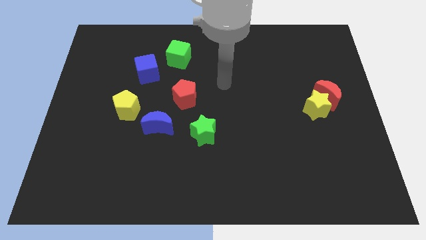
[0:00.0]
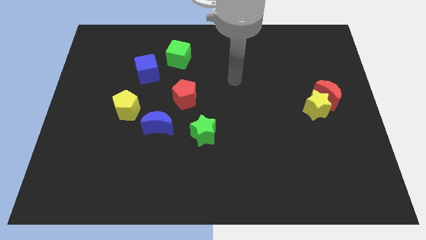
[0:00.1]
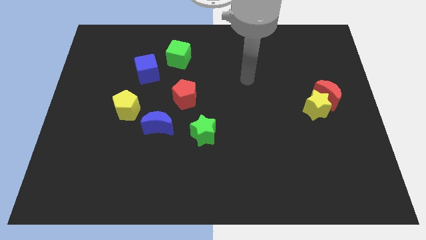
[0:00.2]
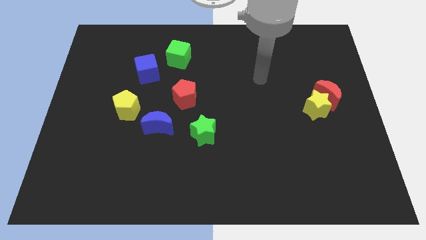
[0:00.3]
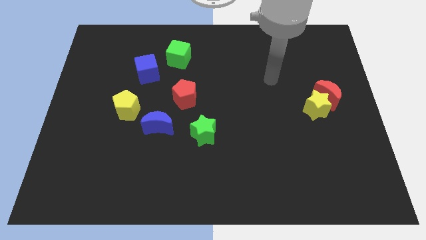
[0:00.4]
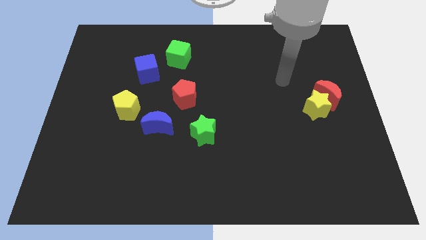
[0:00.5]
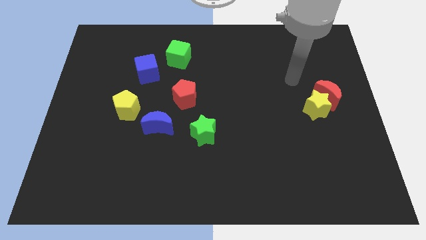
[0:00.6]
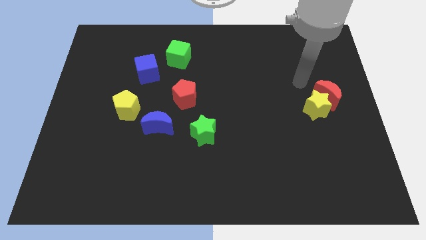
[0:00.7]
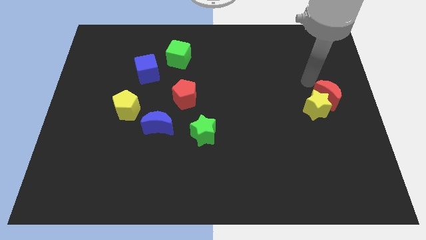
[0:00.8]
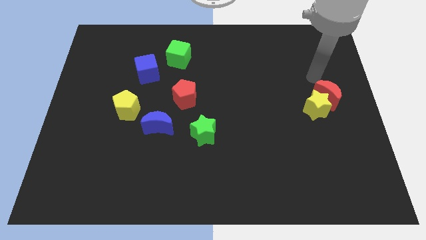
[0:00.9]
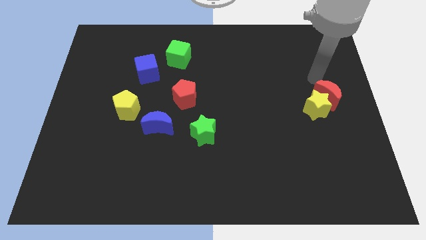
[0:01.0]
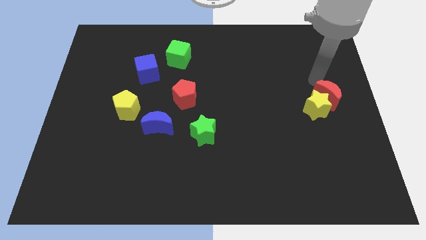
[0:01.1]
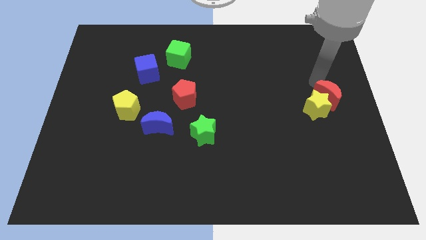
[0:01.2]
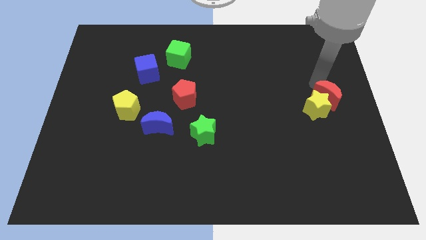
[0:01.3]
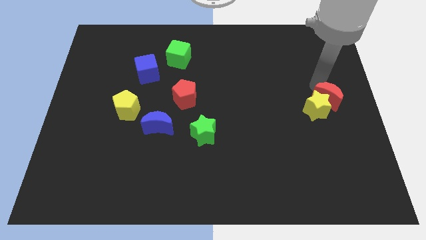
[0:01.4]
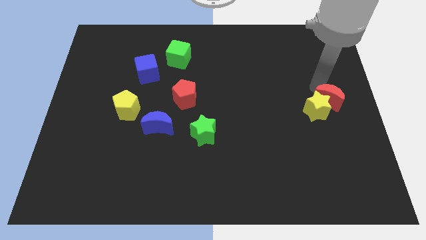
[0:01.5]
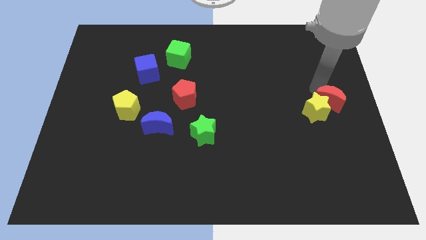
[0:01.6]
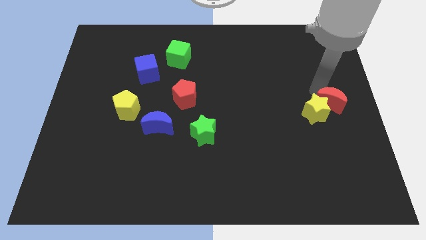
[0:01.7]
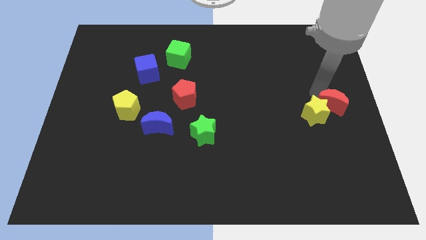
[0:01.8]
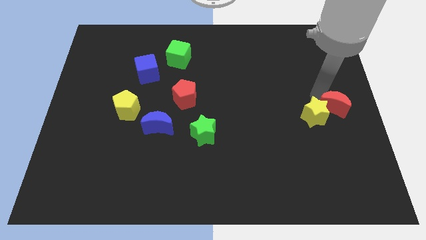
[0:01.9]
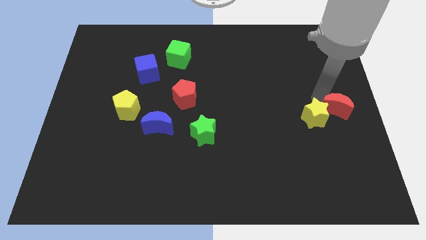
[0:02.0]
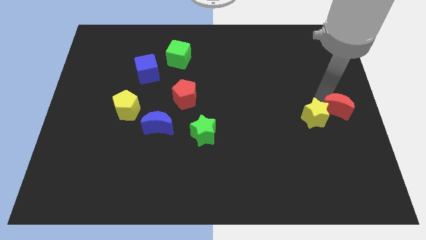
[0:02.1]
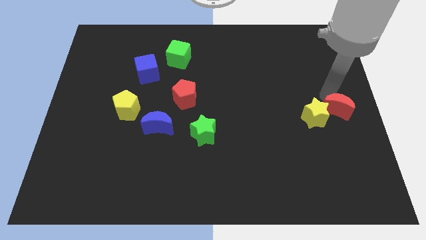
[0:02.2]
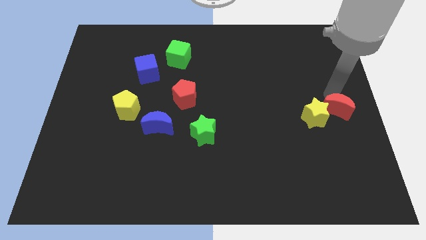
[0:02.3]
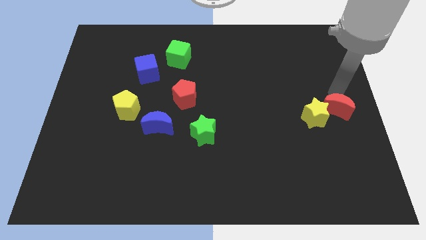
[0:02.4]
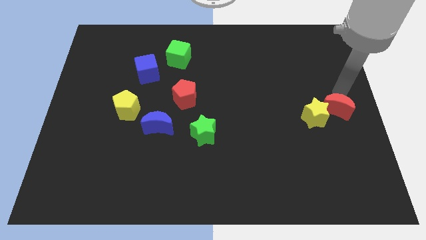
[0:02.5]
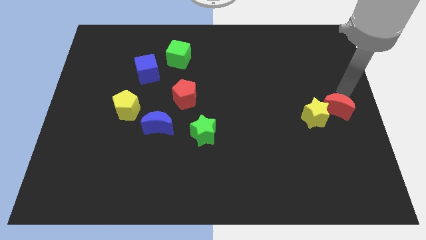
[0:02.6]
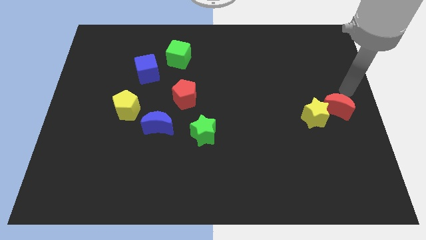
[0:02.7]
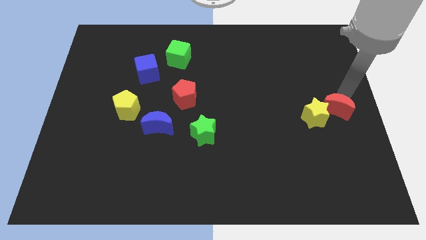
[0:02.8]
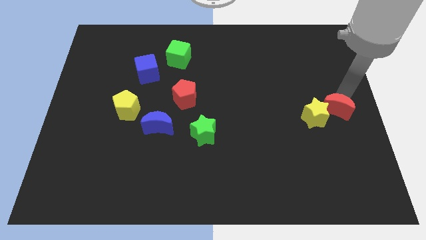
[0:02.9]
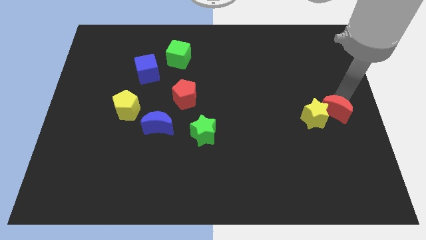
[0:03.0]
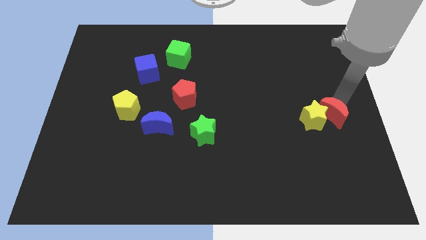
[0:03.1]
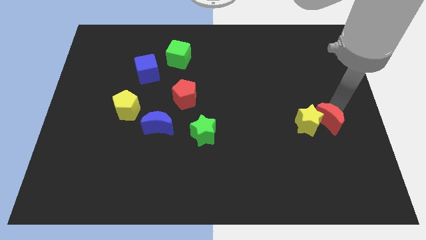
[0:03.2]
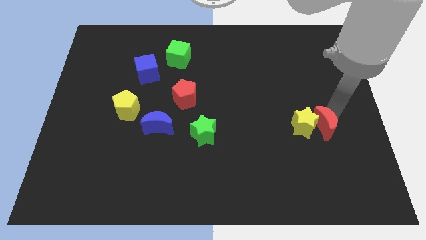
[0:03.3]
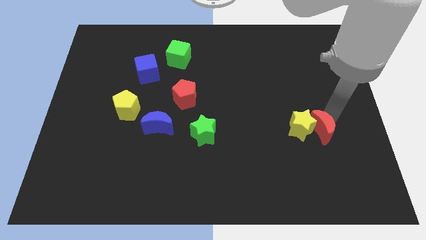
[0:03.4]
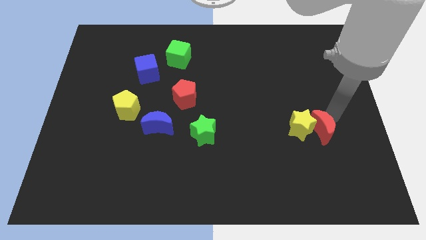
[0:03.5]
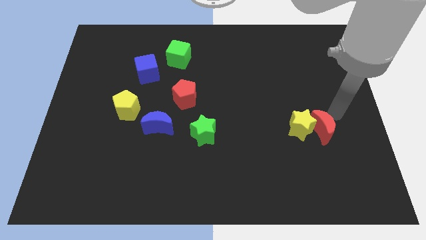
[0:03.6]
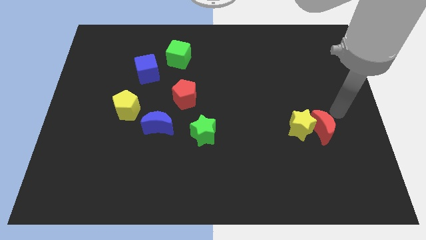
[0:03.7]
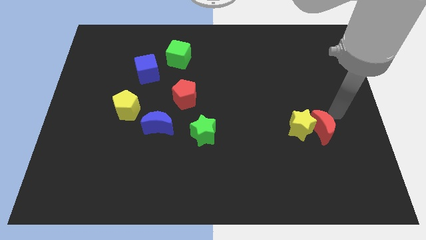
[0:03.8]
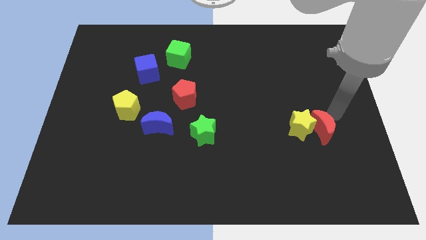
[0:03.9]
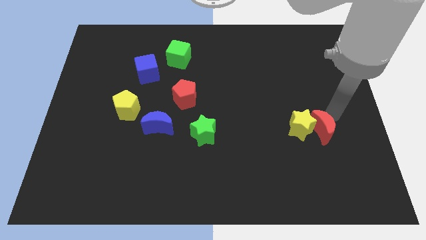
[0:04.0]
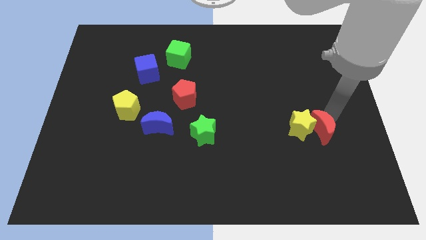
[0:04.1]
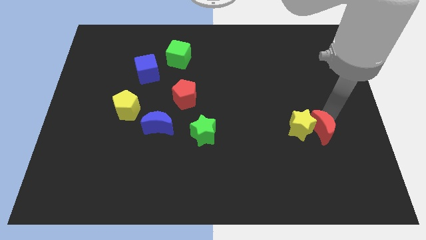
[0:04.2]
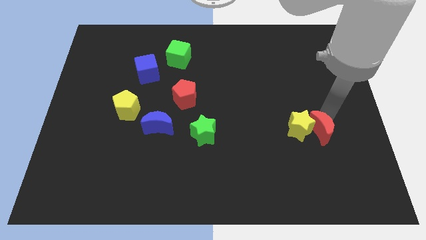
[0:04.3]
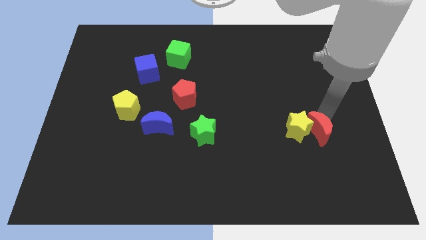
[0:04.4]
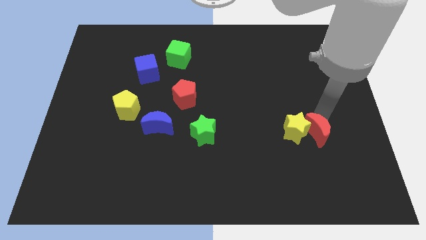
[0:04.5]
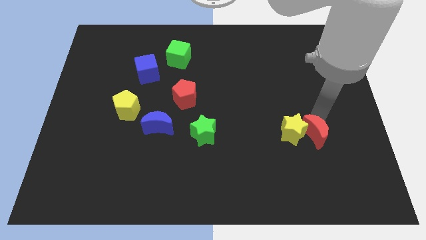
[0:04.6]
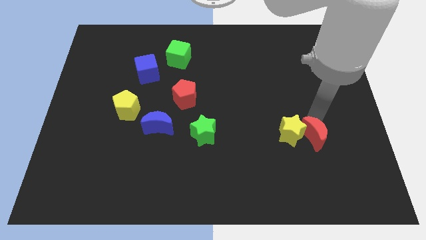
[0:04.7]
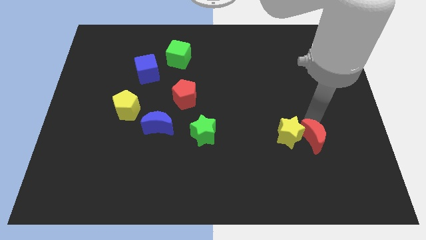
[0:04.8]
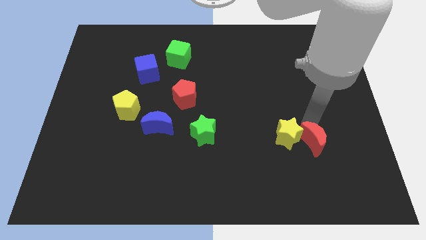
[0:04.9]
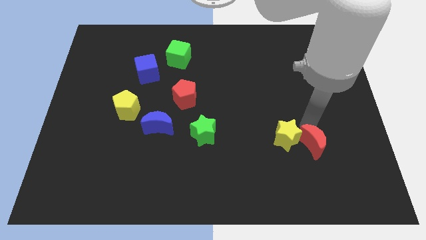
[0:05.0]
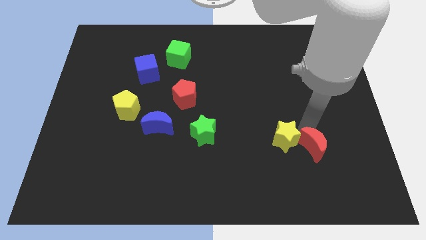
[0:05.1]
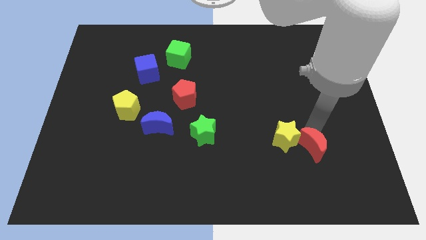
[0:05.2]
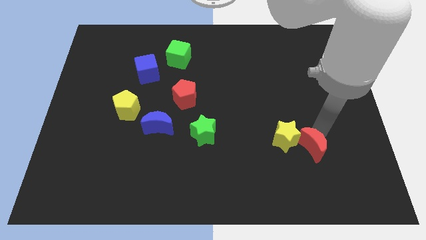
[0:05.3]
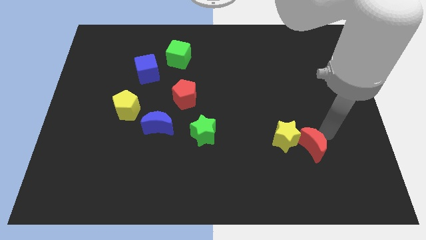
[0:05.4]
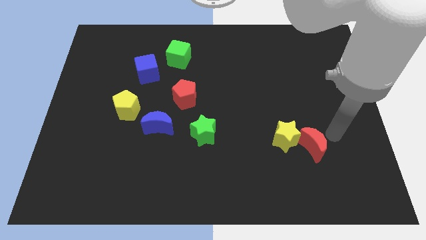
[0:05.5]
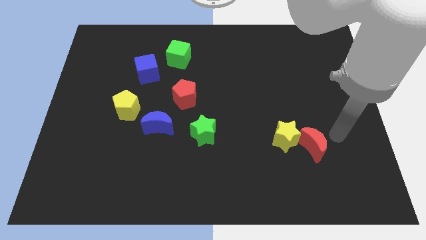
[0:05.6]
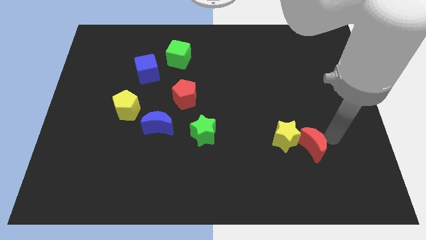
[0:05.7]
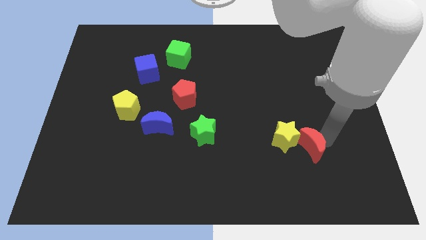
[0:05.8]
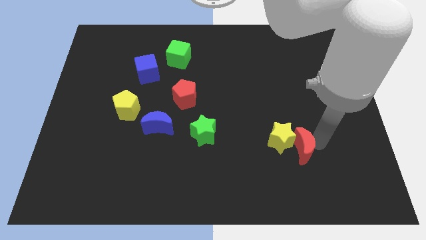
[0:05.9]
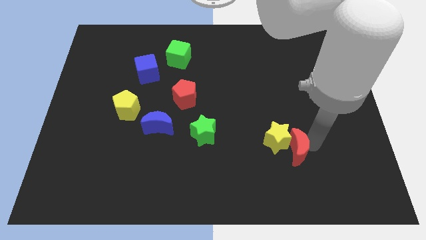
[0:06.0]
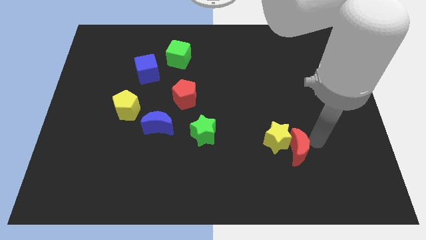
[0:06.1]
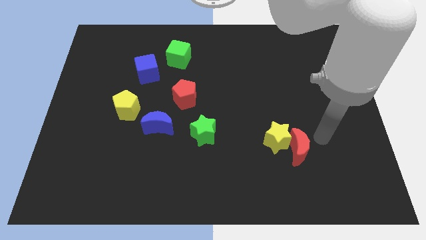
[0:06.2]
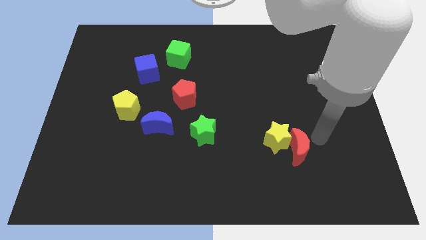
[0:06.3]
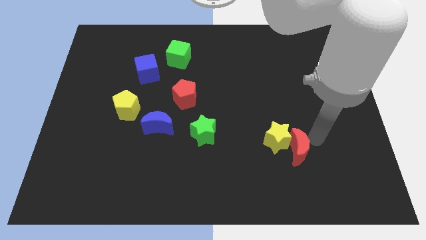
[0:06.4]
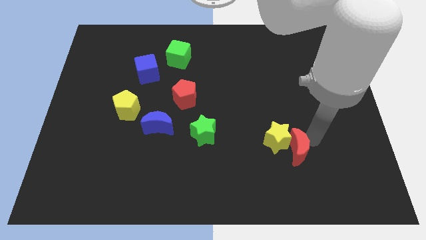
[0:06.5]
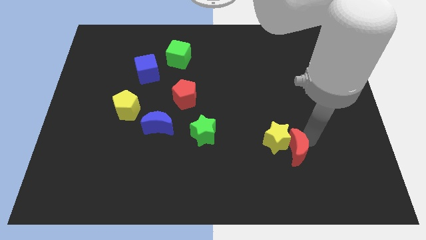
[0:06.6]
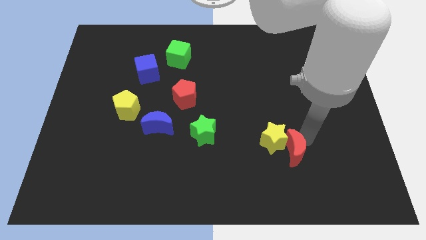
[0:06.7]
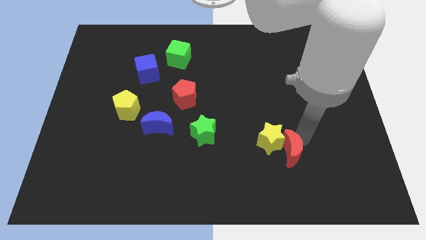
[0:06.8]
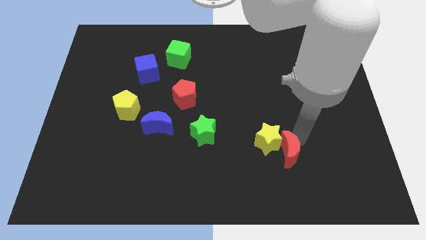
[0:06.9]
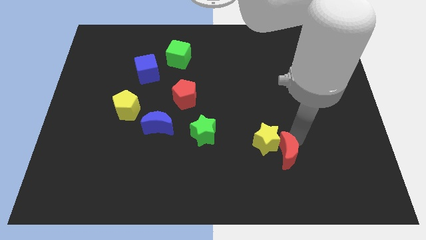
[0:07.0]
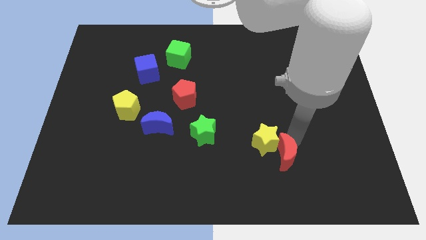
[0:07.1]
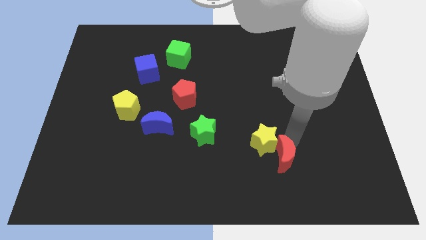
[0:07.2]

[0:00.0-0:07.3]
push the red moon downwards and then left

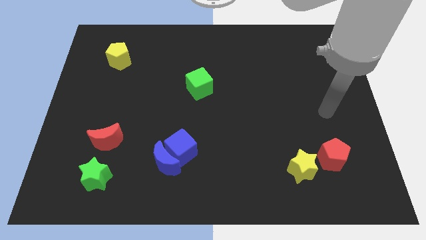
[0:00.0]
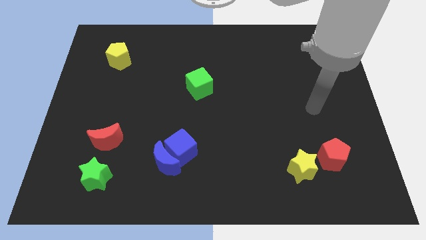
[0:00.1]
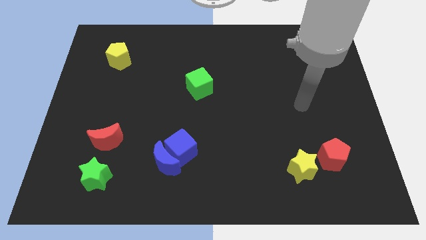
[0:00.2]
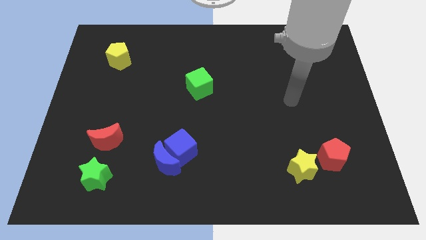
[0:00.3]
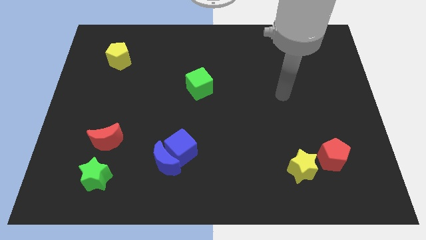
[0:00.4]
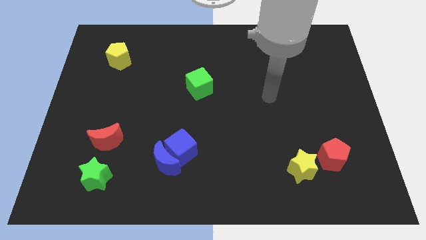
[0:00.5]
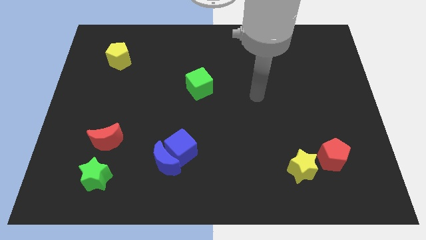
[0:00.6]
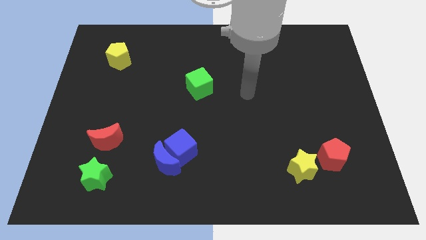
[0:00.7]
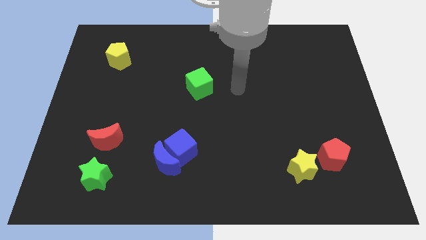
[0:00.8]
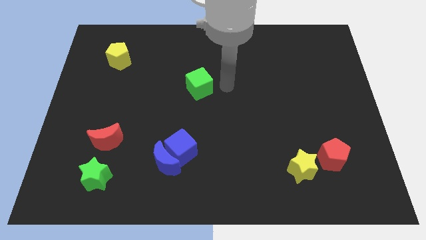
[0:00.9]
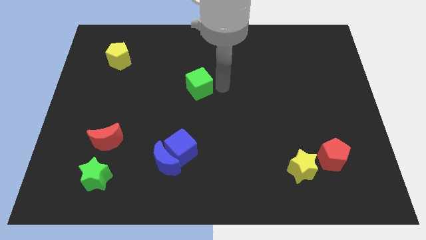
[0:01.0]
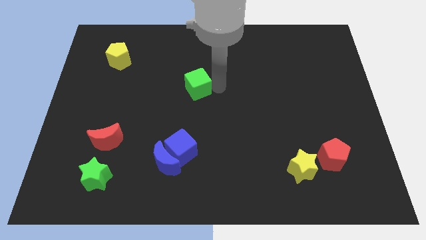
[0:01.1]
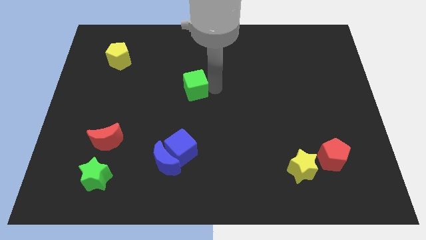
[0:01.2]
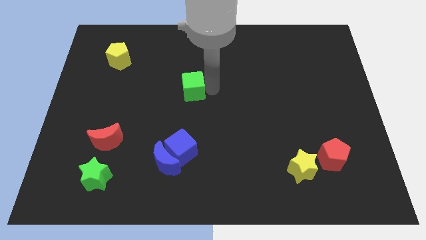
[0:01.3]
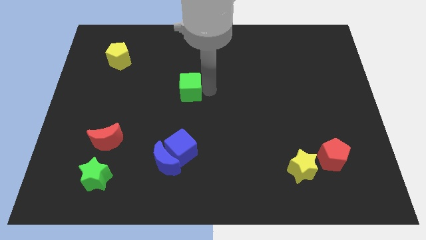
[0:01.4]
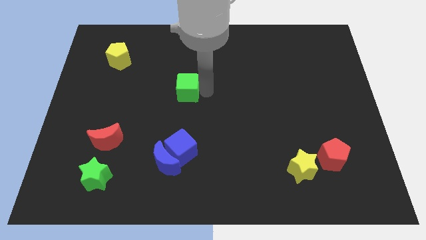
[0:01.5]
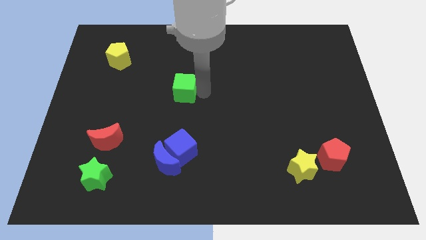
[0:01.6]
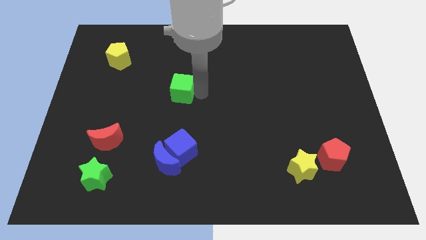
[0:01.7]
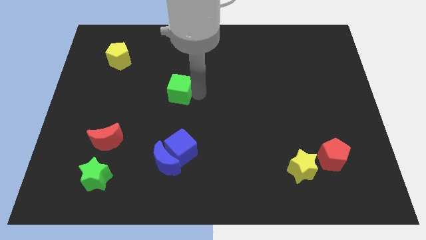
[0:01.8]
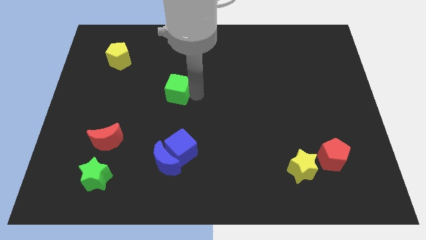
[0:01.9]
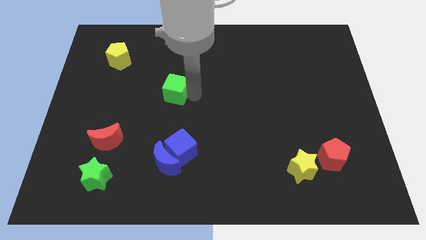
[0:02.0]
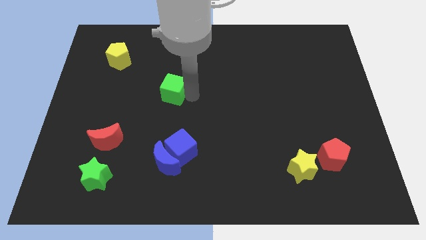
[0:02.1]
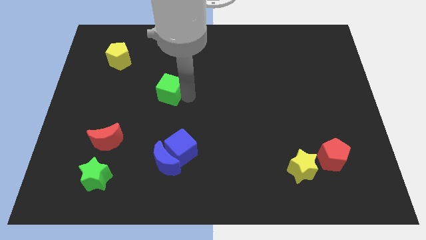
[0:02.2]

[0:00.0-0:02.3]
slightly slide the green cube left
